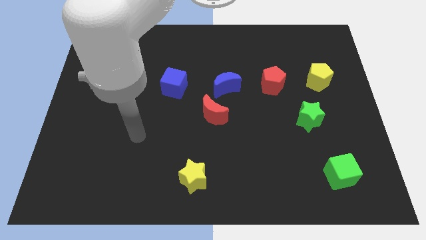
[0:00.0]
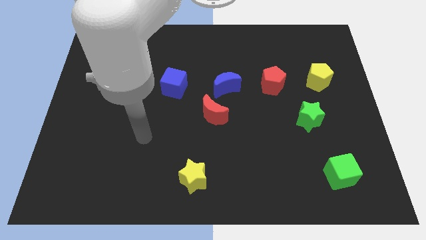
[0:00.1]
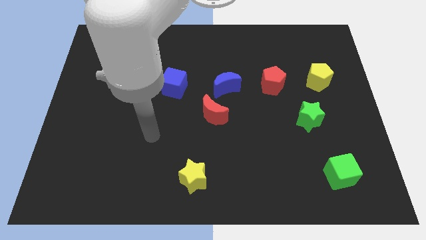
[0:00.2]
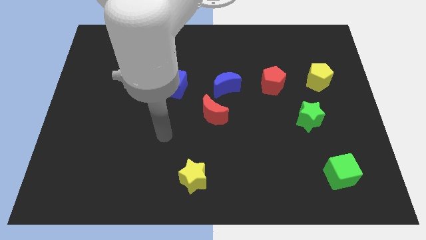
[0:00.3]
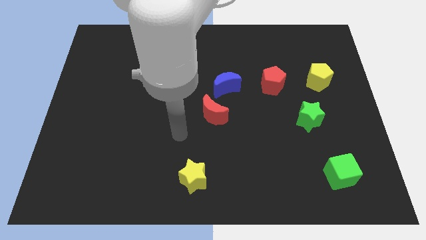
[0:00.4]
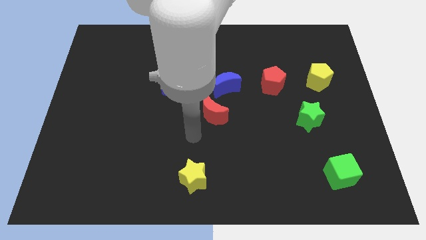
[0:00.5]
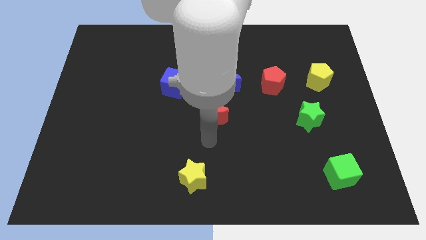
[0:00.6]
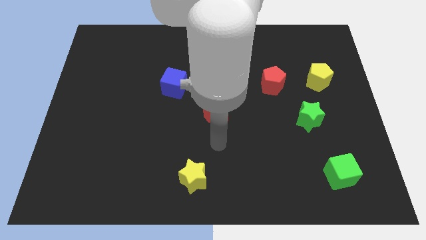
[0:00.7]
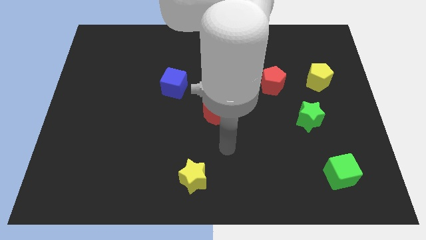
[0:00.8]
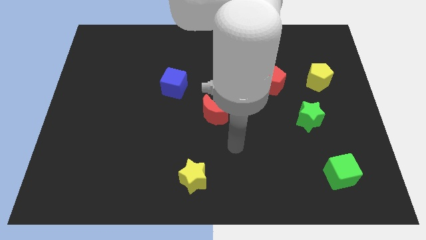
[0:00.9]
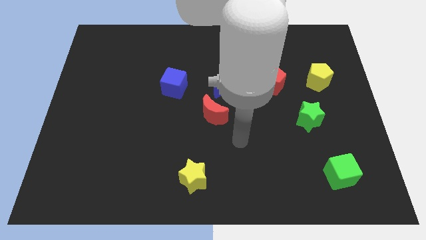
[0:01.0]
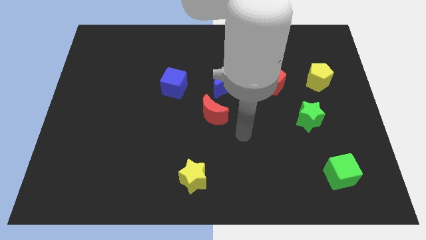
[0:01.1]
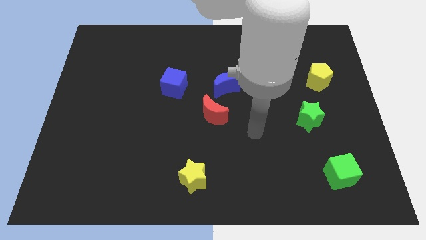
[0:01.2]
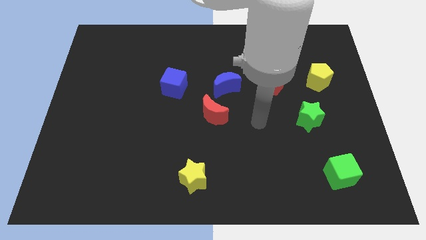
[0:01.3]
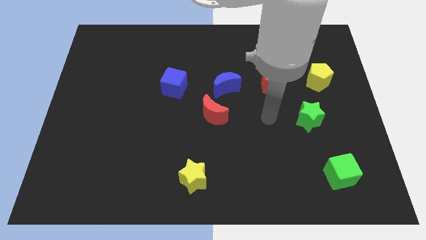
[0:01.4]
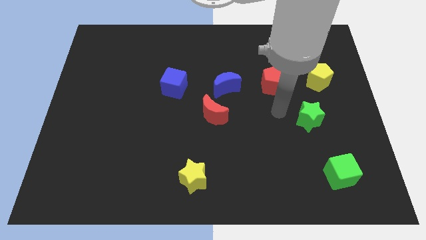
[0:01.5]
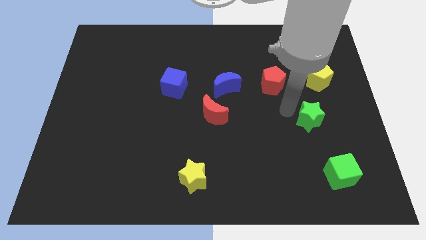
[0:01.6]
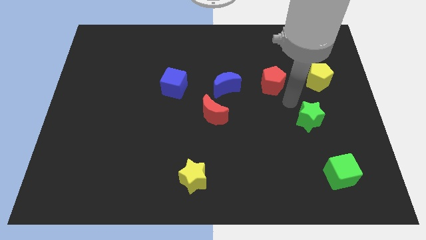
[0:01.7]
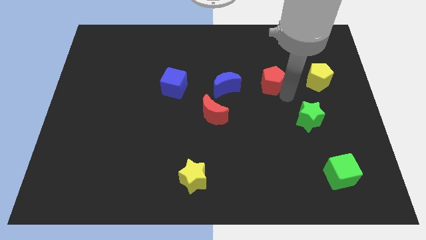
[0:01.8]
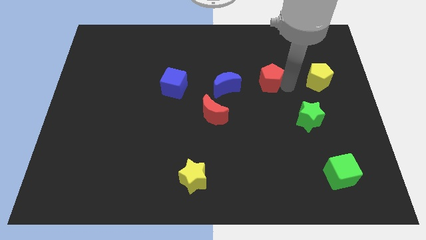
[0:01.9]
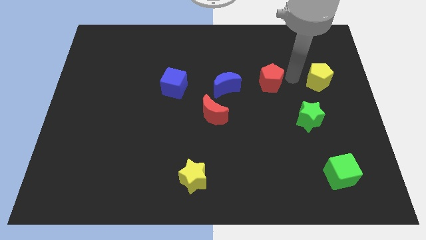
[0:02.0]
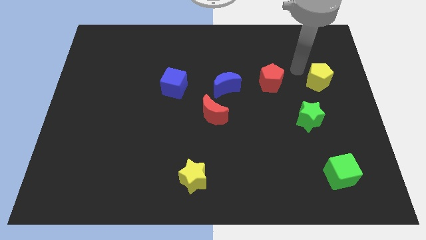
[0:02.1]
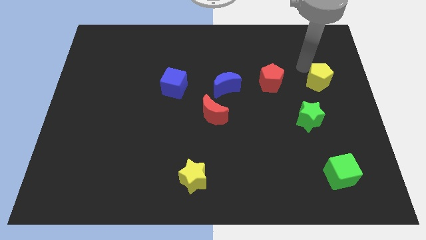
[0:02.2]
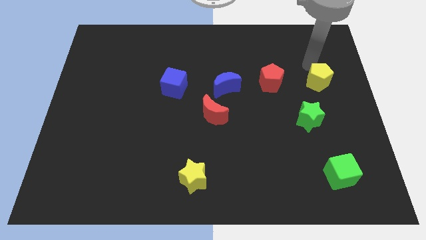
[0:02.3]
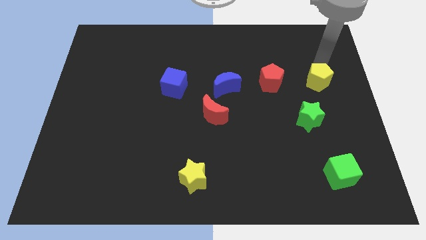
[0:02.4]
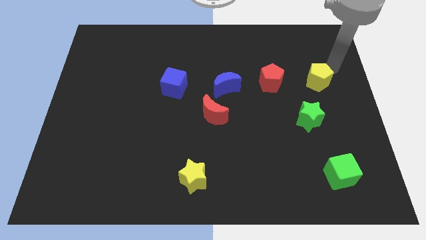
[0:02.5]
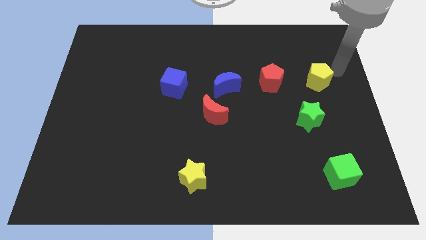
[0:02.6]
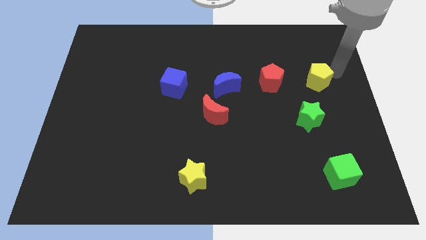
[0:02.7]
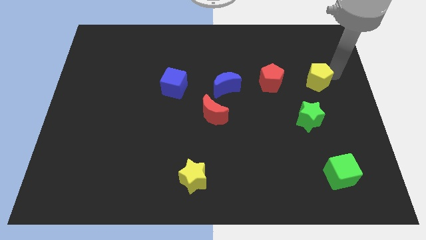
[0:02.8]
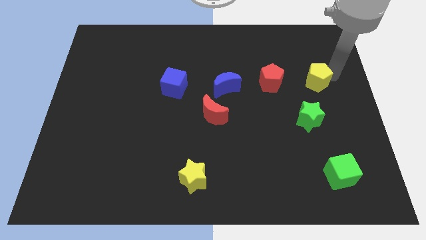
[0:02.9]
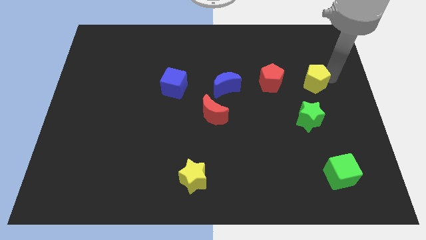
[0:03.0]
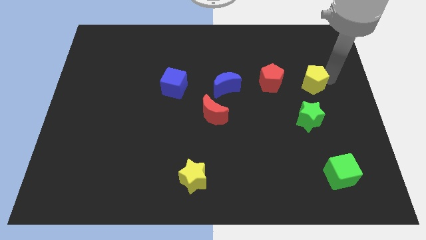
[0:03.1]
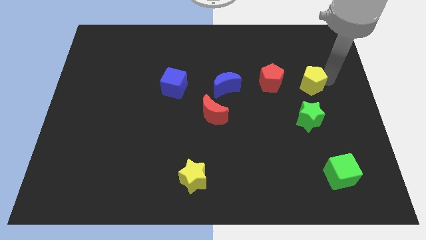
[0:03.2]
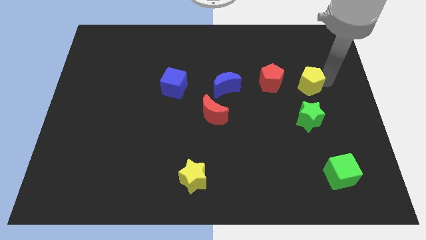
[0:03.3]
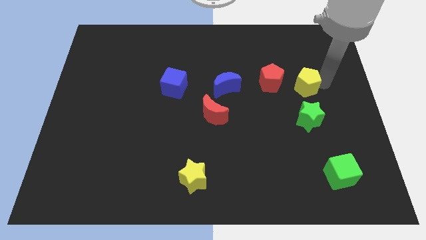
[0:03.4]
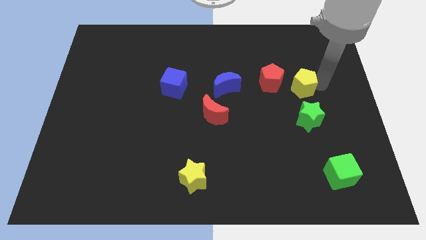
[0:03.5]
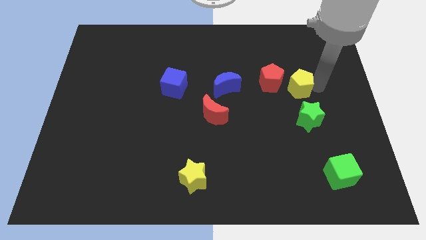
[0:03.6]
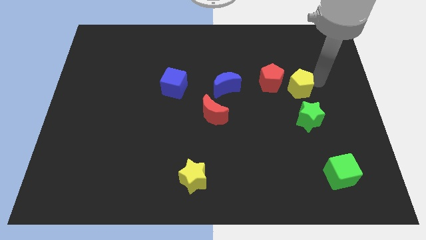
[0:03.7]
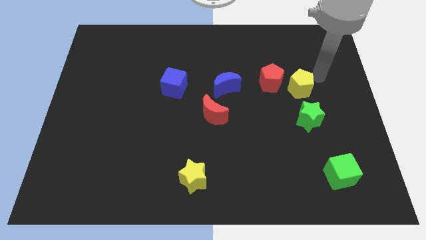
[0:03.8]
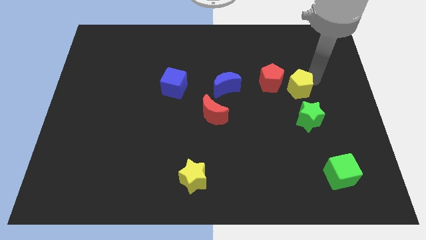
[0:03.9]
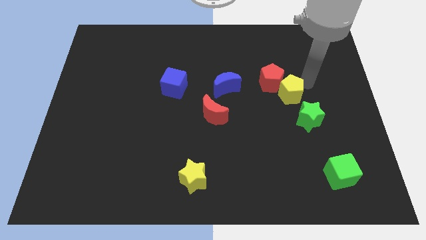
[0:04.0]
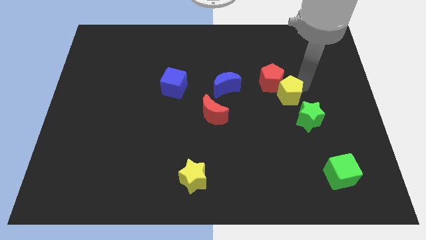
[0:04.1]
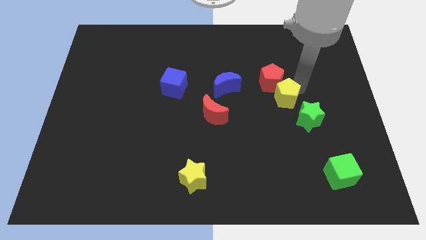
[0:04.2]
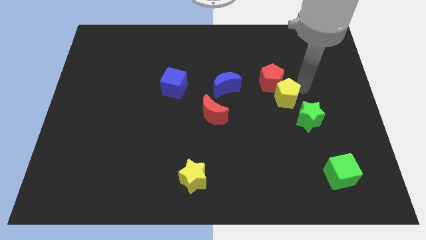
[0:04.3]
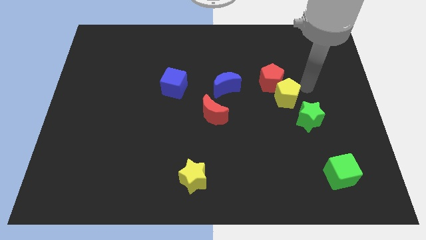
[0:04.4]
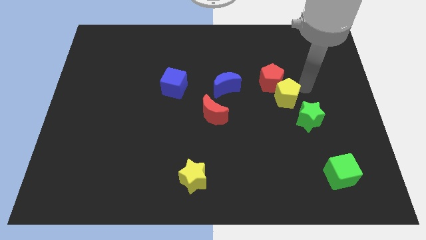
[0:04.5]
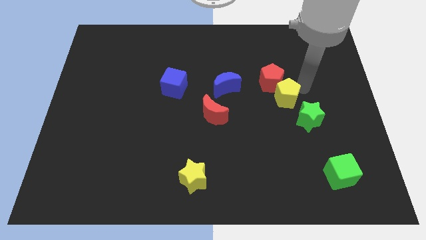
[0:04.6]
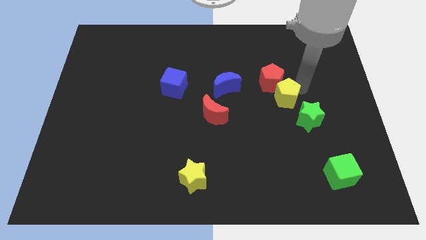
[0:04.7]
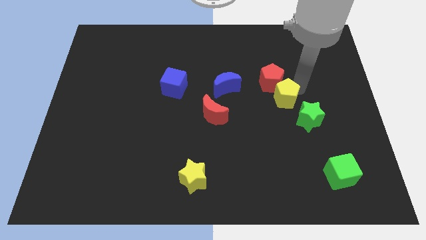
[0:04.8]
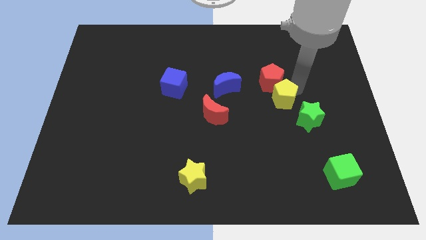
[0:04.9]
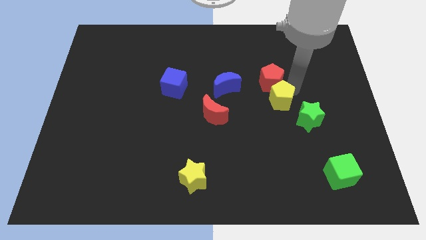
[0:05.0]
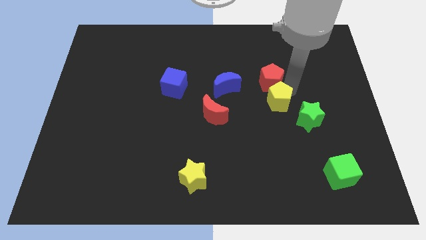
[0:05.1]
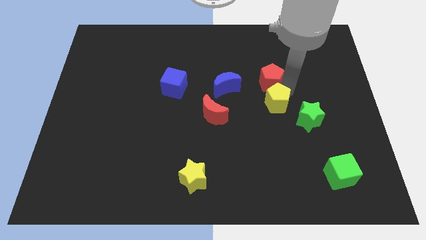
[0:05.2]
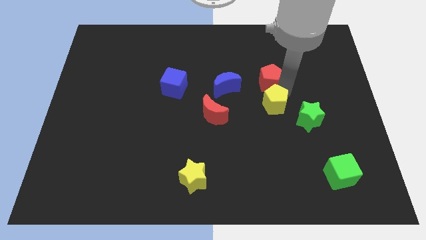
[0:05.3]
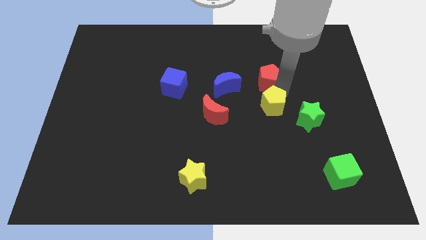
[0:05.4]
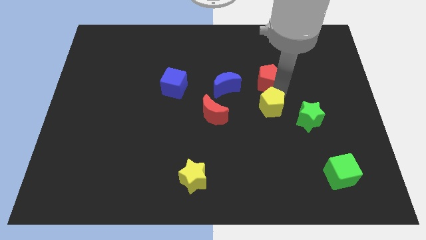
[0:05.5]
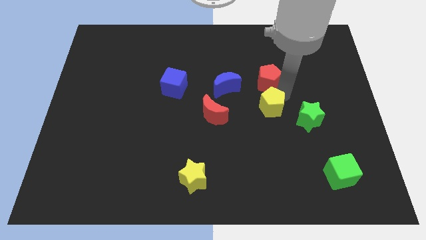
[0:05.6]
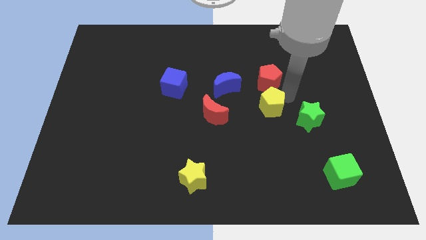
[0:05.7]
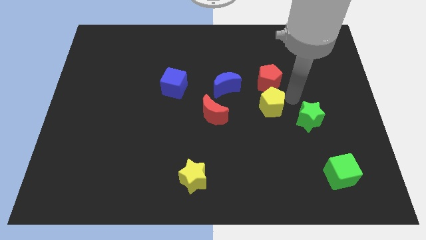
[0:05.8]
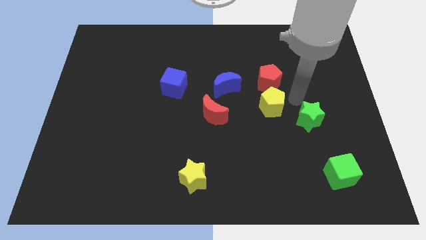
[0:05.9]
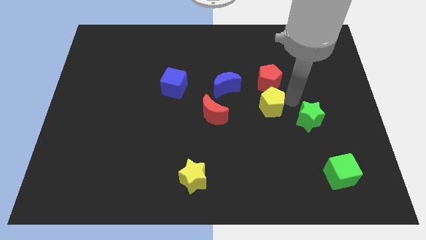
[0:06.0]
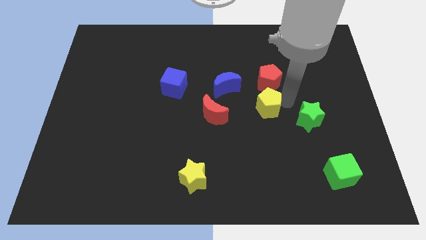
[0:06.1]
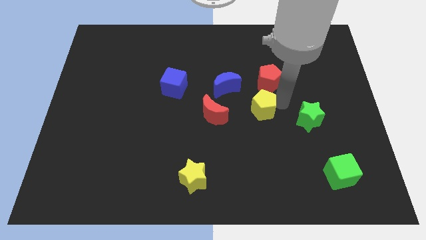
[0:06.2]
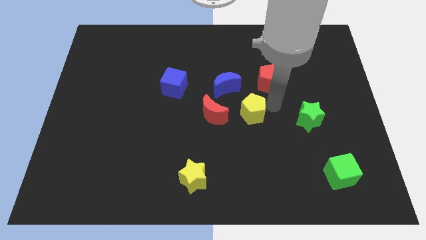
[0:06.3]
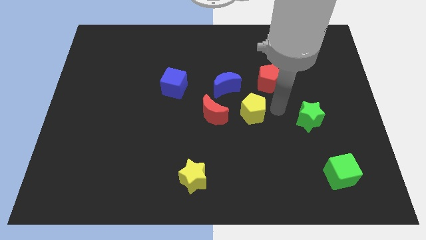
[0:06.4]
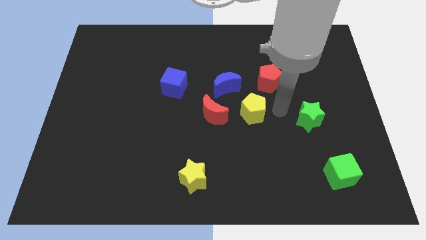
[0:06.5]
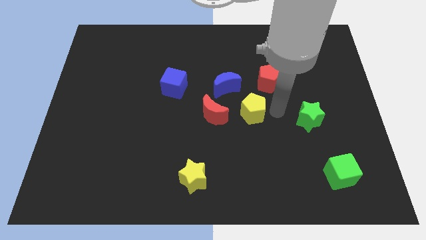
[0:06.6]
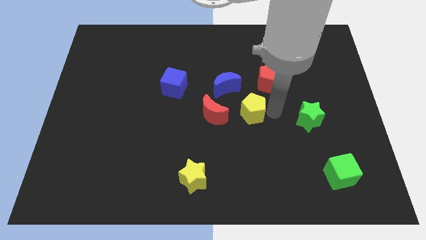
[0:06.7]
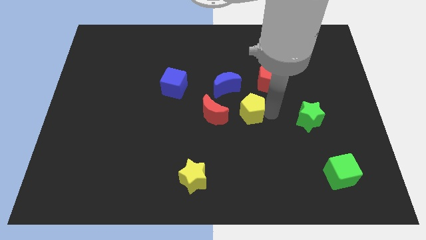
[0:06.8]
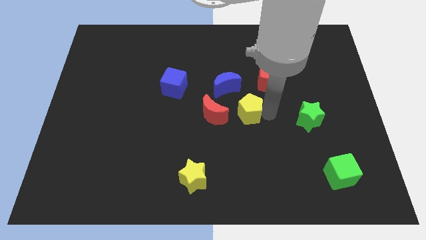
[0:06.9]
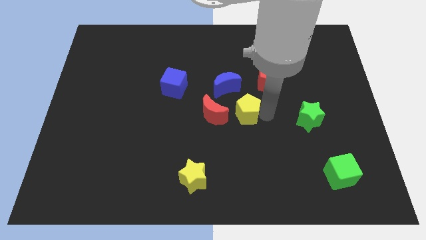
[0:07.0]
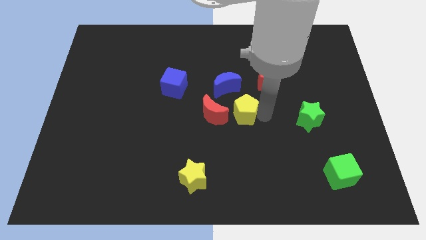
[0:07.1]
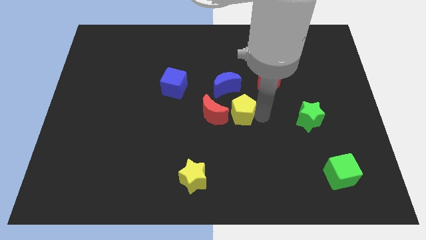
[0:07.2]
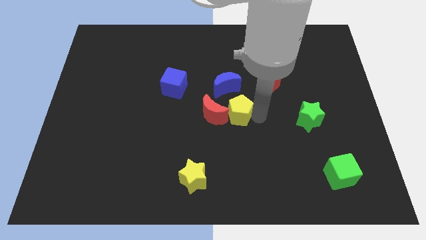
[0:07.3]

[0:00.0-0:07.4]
move the yellow pentagon towards the red moon
